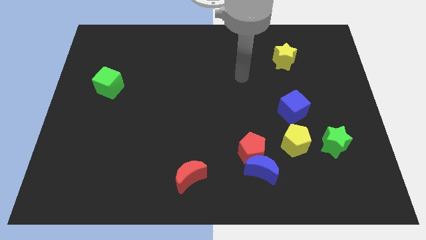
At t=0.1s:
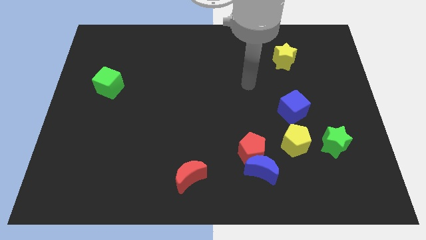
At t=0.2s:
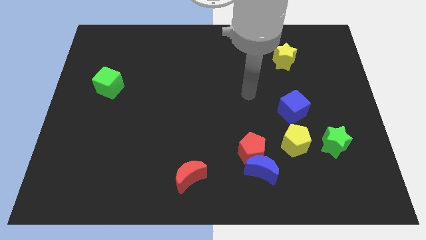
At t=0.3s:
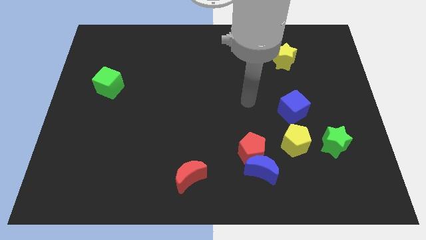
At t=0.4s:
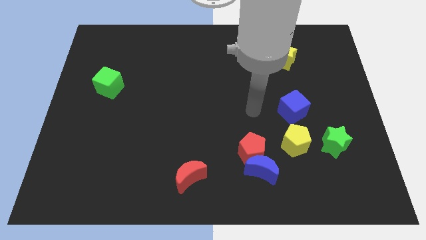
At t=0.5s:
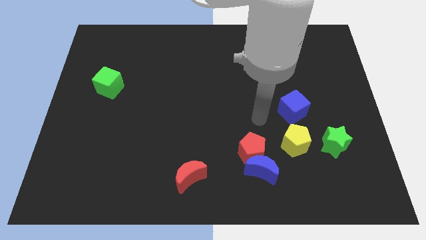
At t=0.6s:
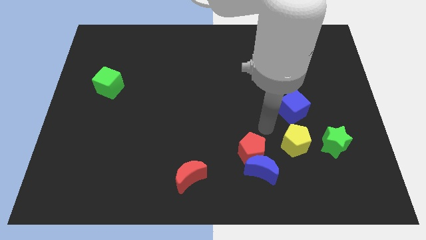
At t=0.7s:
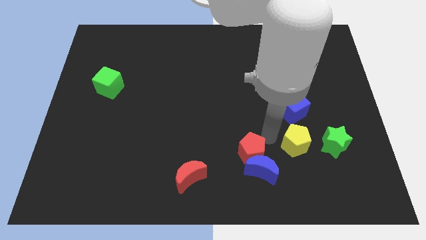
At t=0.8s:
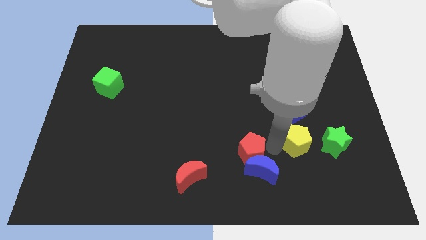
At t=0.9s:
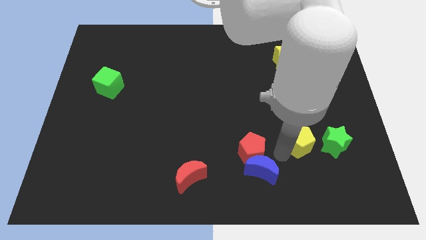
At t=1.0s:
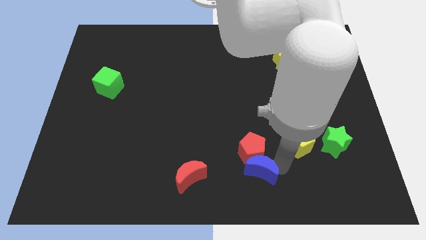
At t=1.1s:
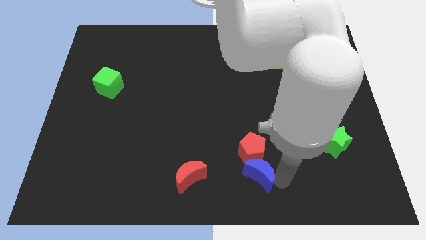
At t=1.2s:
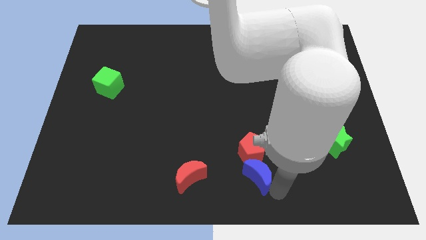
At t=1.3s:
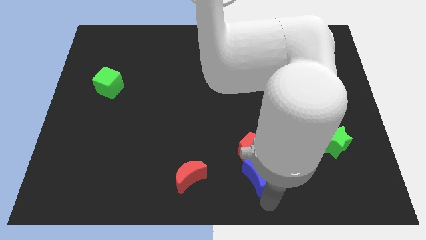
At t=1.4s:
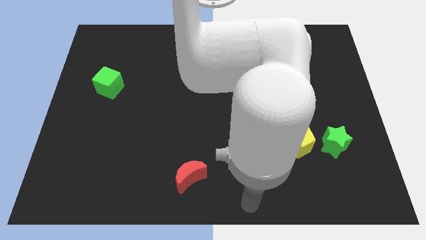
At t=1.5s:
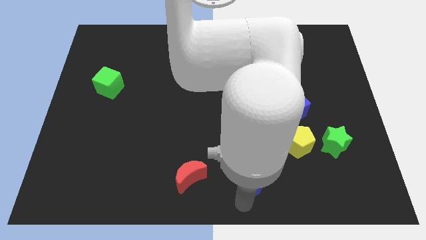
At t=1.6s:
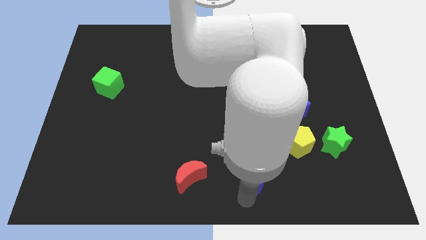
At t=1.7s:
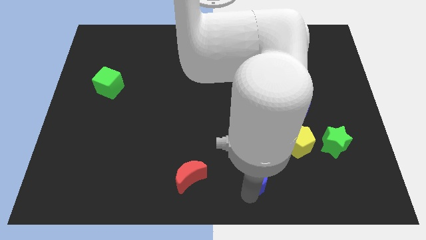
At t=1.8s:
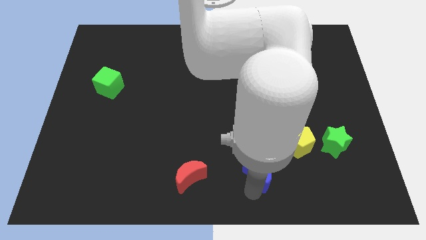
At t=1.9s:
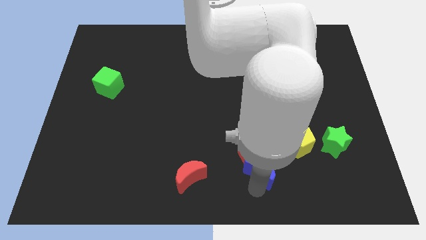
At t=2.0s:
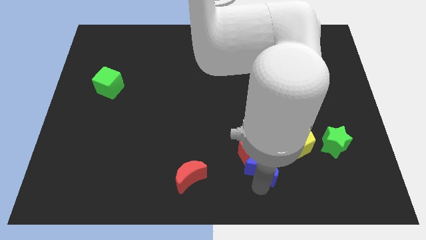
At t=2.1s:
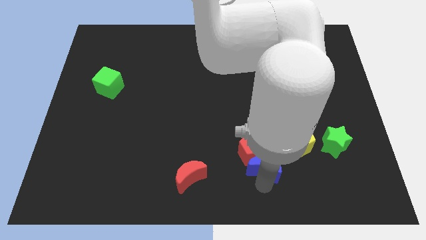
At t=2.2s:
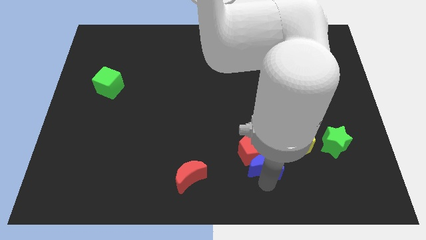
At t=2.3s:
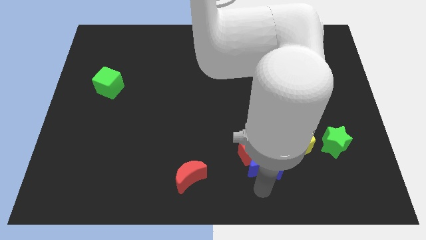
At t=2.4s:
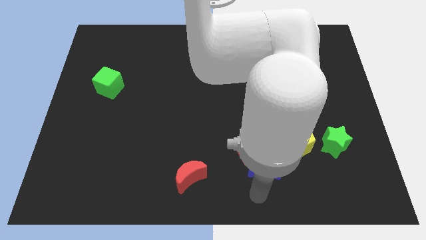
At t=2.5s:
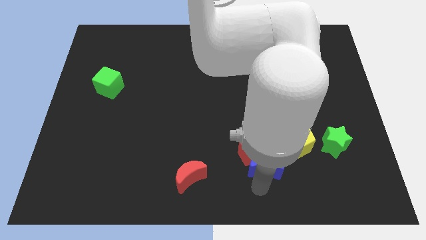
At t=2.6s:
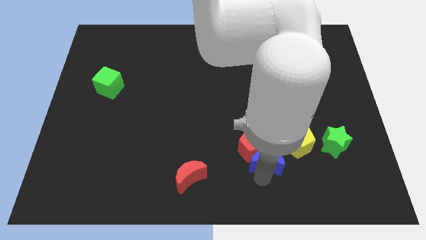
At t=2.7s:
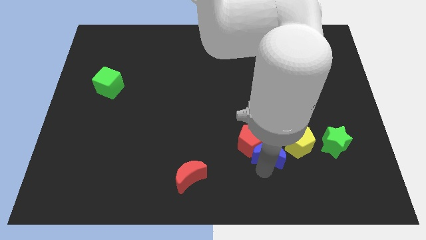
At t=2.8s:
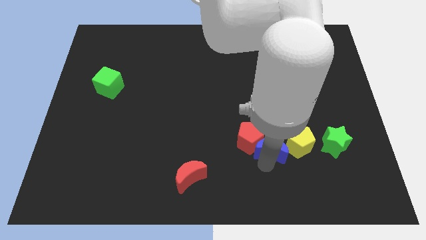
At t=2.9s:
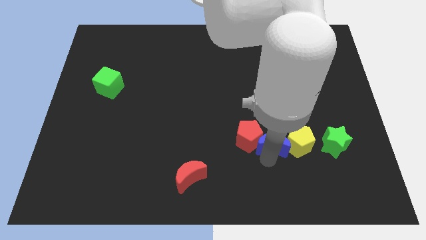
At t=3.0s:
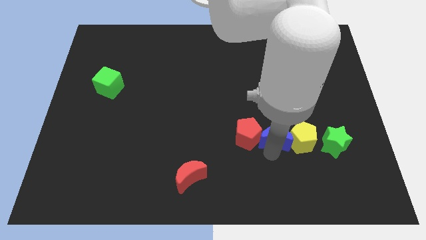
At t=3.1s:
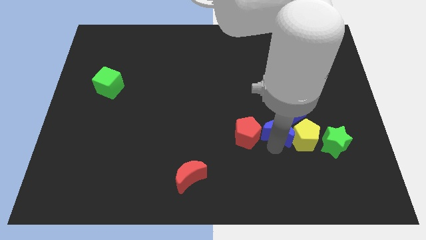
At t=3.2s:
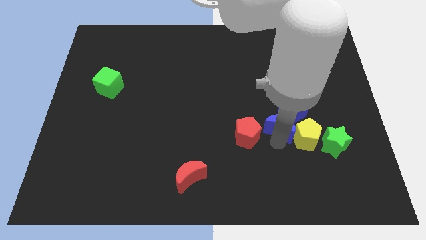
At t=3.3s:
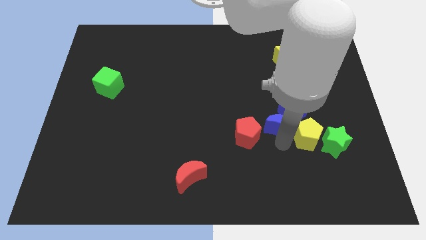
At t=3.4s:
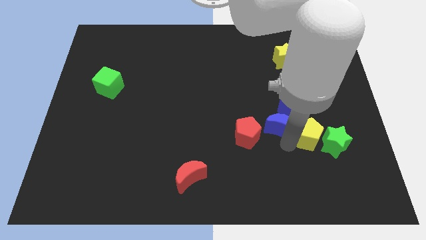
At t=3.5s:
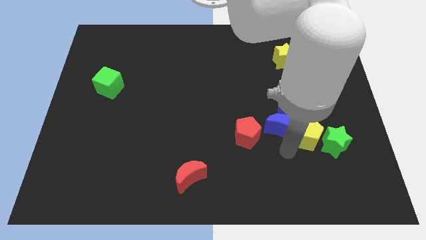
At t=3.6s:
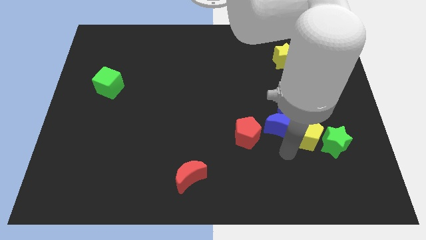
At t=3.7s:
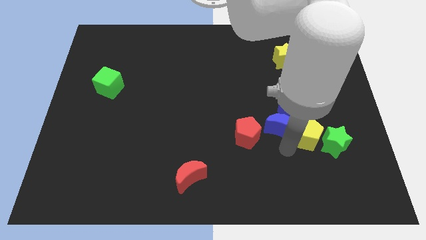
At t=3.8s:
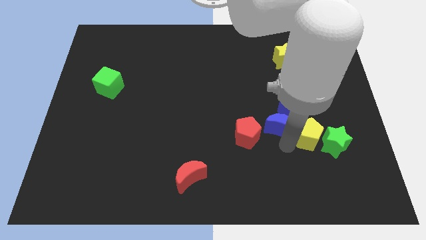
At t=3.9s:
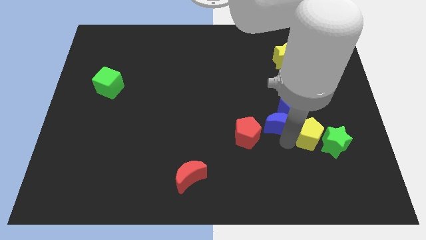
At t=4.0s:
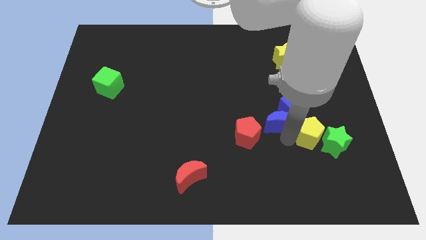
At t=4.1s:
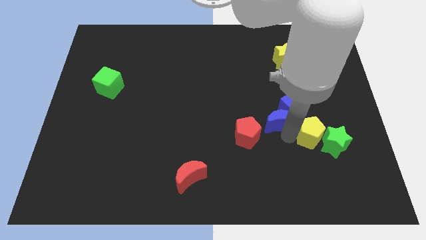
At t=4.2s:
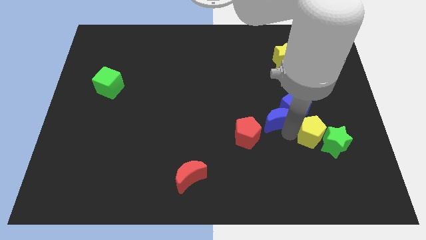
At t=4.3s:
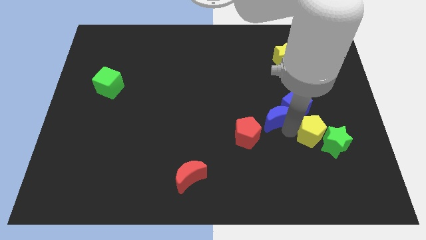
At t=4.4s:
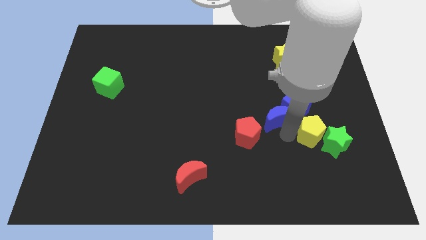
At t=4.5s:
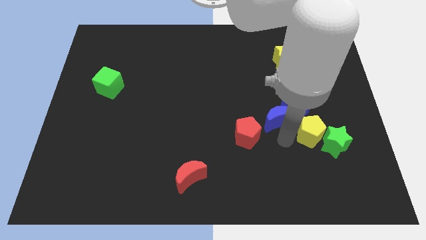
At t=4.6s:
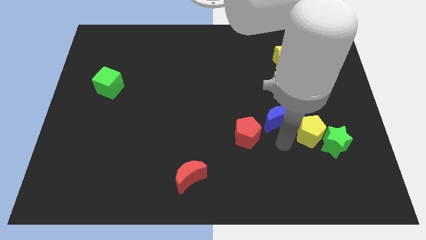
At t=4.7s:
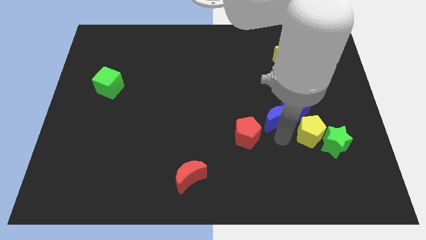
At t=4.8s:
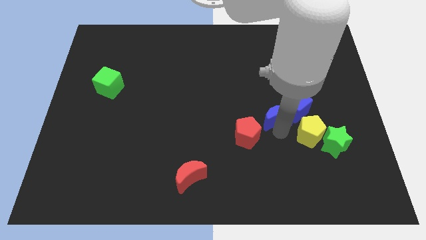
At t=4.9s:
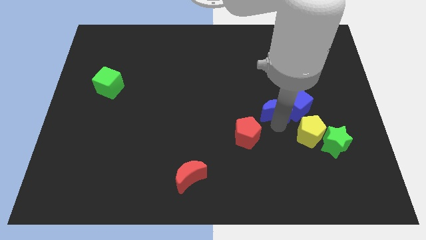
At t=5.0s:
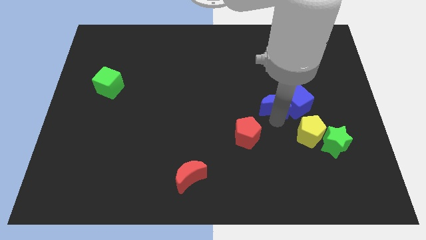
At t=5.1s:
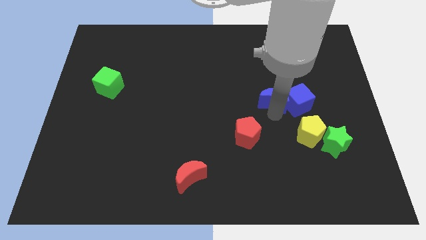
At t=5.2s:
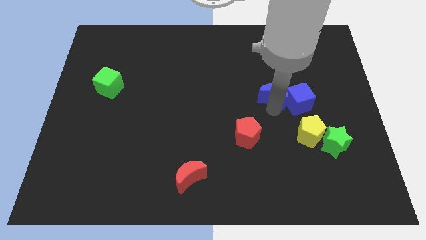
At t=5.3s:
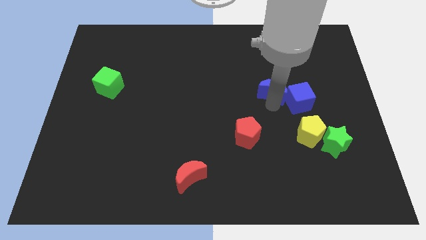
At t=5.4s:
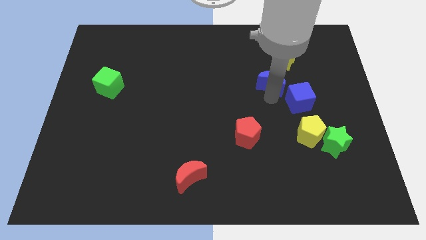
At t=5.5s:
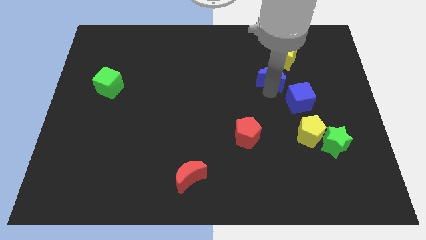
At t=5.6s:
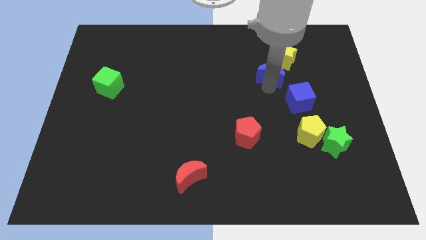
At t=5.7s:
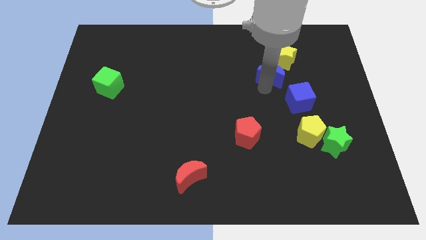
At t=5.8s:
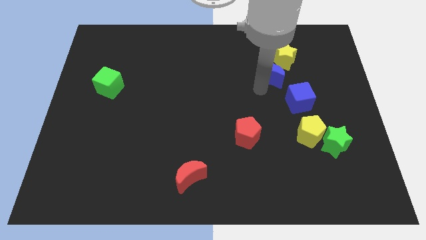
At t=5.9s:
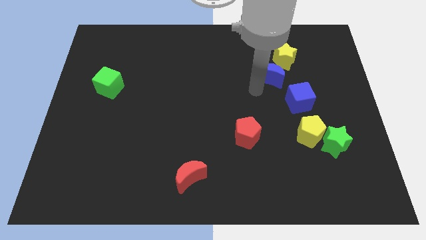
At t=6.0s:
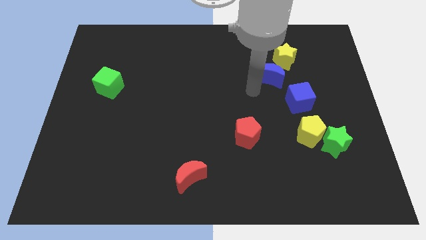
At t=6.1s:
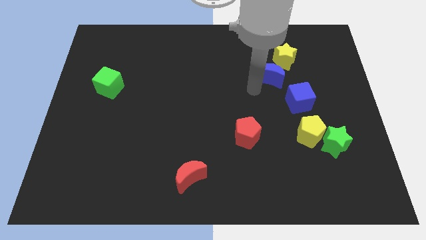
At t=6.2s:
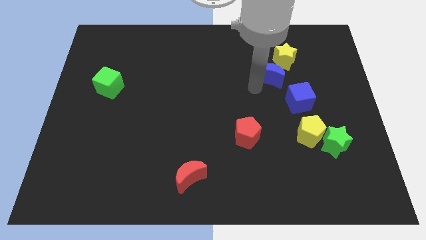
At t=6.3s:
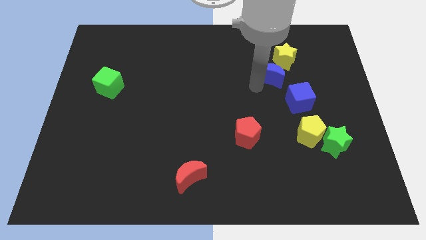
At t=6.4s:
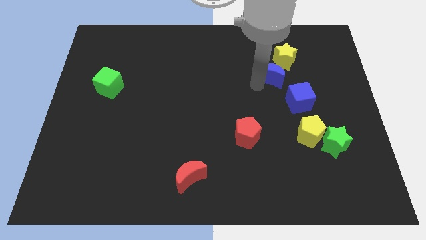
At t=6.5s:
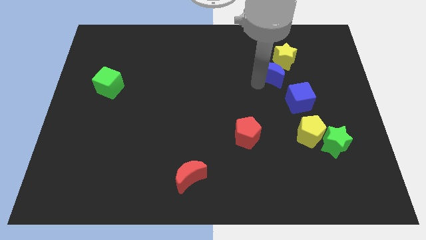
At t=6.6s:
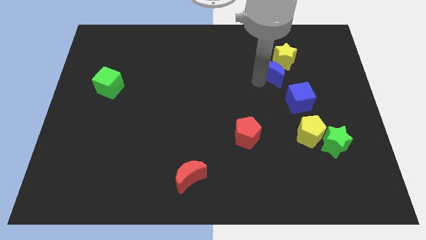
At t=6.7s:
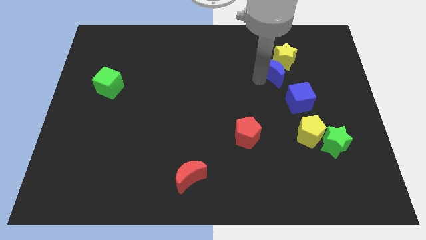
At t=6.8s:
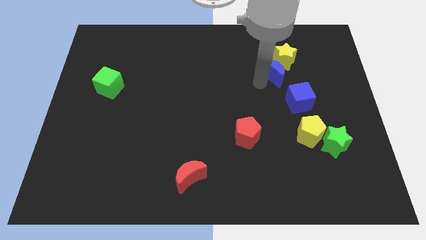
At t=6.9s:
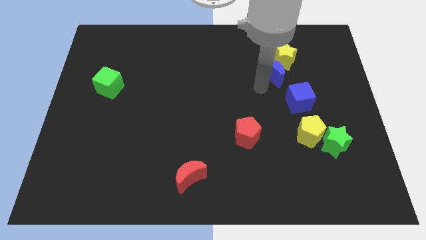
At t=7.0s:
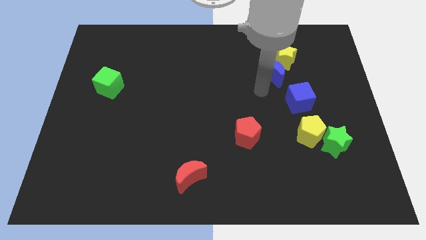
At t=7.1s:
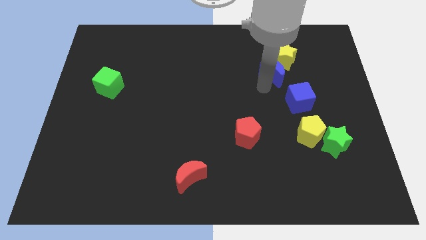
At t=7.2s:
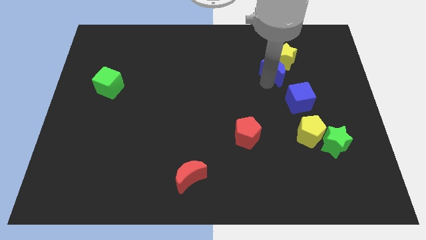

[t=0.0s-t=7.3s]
push the blue moon to the yellow star
